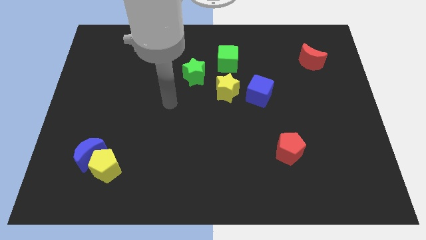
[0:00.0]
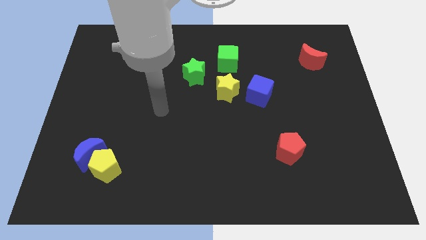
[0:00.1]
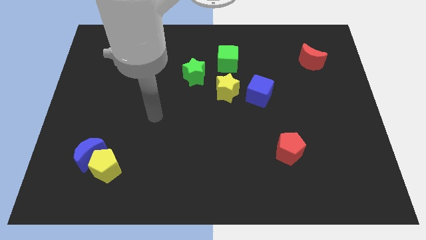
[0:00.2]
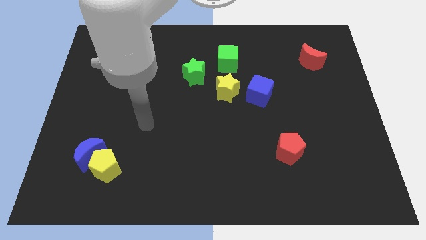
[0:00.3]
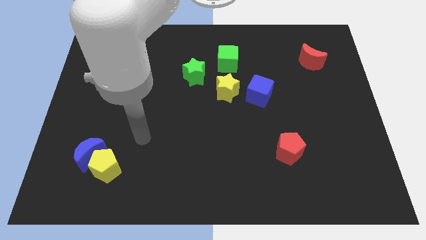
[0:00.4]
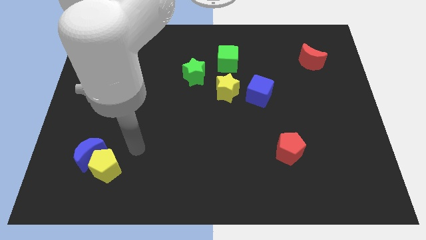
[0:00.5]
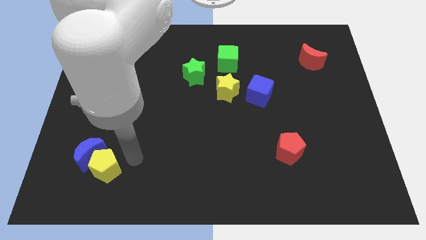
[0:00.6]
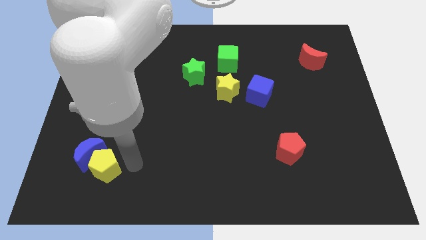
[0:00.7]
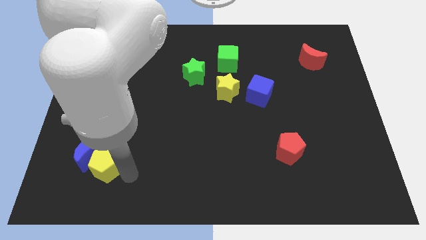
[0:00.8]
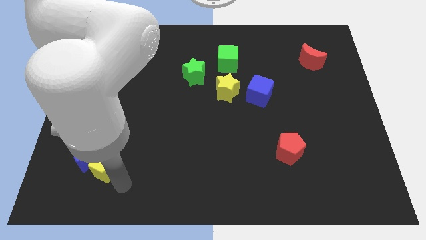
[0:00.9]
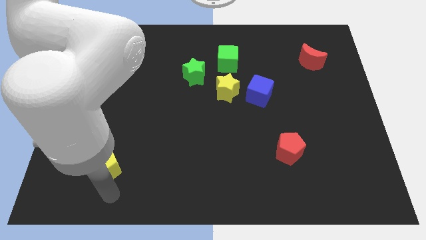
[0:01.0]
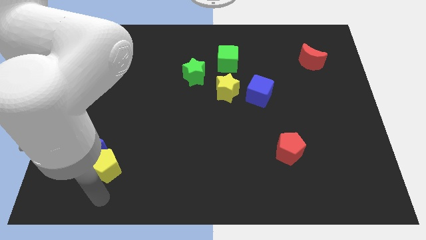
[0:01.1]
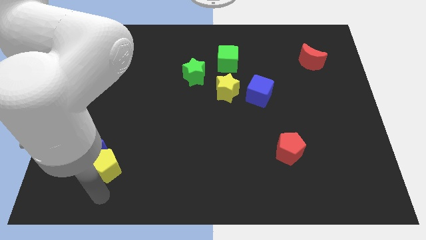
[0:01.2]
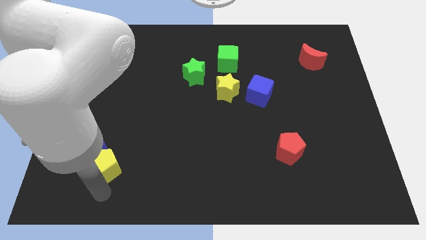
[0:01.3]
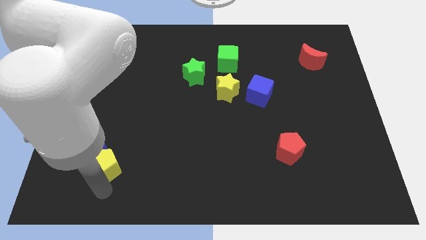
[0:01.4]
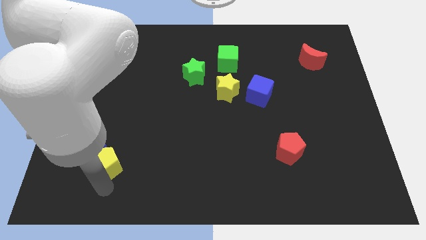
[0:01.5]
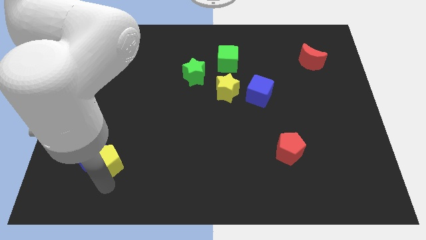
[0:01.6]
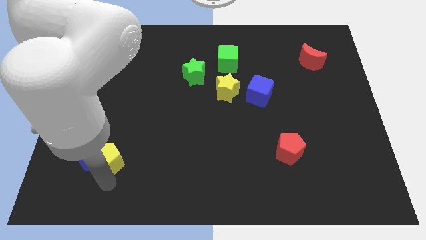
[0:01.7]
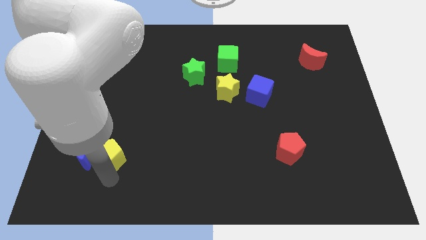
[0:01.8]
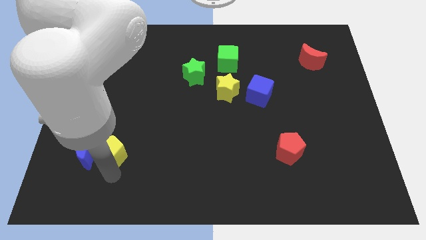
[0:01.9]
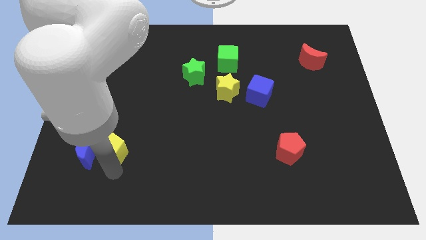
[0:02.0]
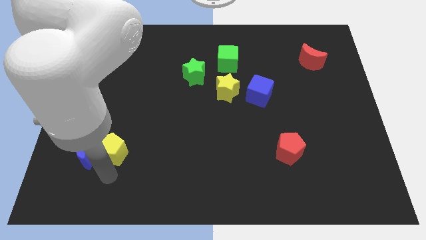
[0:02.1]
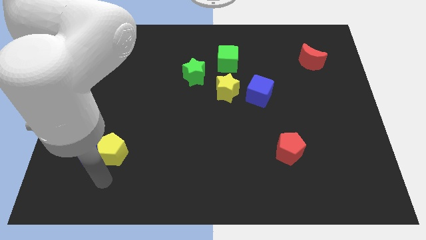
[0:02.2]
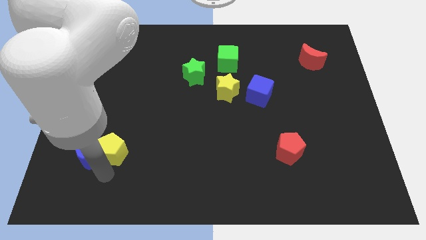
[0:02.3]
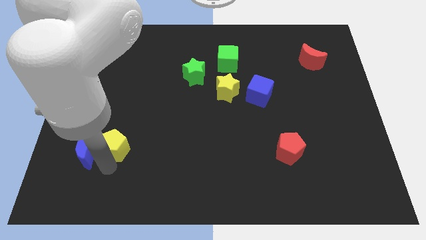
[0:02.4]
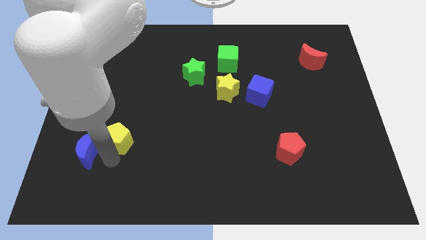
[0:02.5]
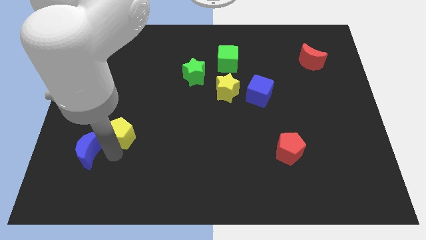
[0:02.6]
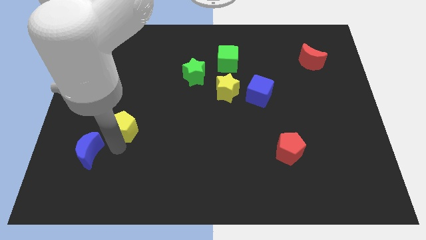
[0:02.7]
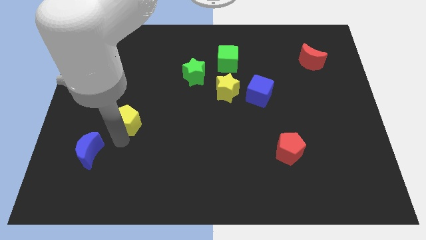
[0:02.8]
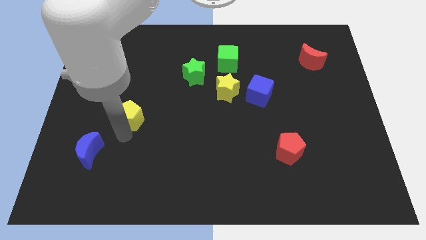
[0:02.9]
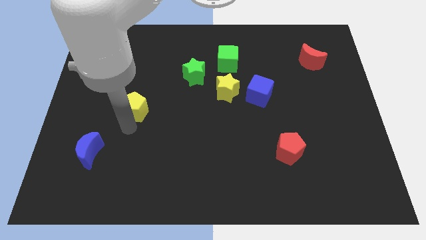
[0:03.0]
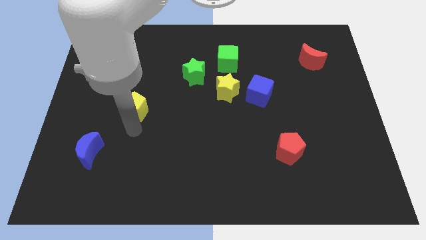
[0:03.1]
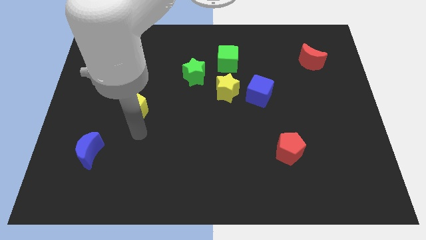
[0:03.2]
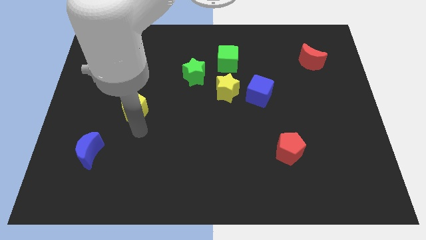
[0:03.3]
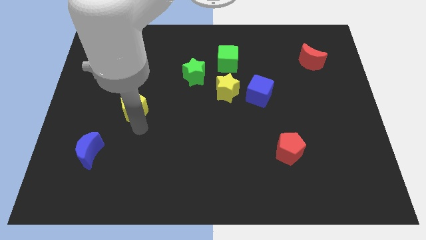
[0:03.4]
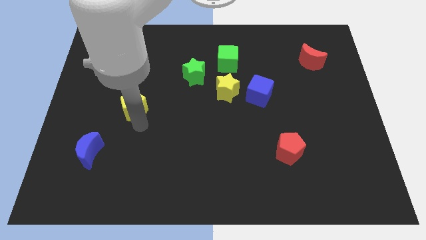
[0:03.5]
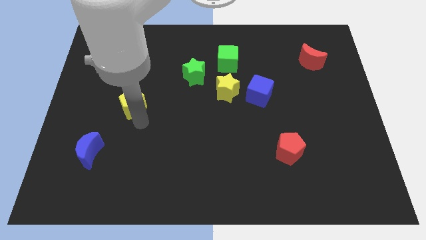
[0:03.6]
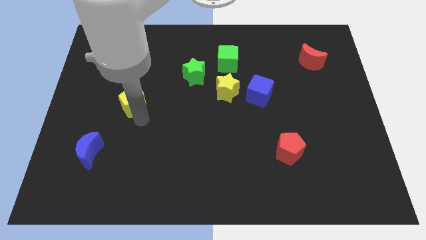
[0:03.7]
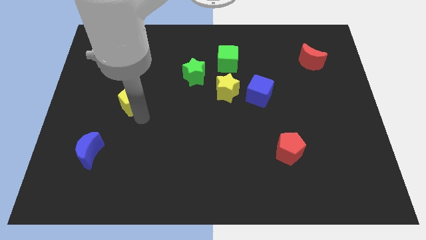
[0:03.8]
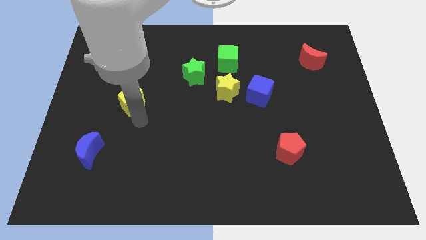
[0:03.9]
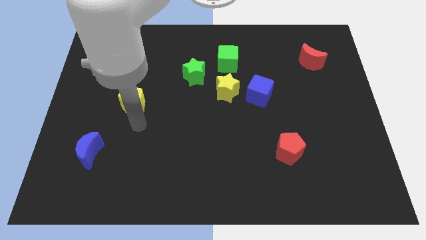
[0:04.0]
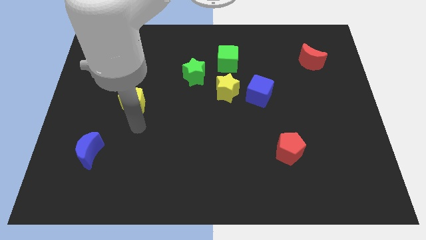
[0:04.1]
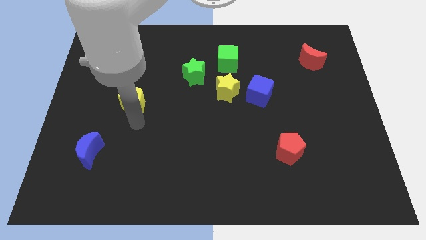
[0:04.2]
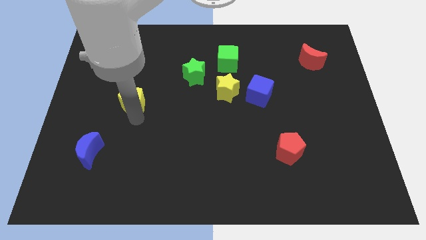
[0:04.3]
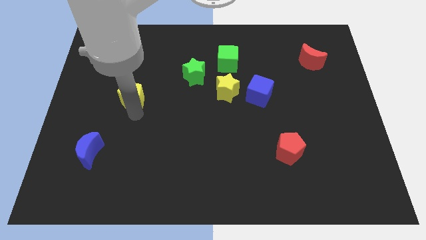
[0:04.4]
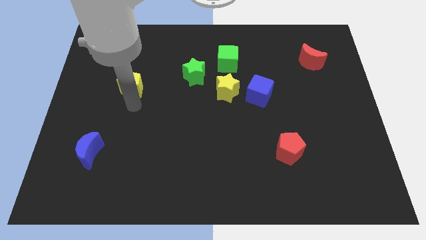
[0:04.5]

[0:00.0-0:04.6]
slide the yellow pentagon upwards

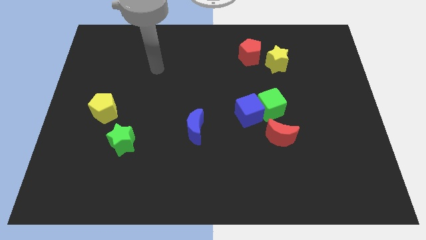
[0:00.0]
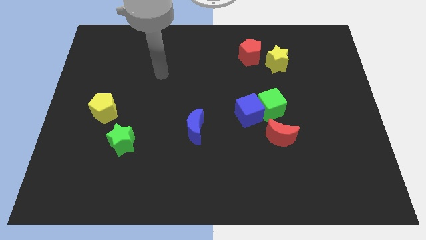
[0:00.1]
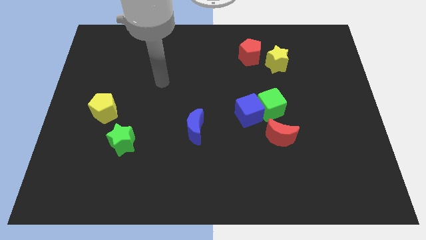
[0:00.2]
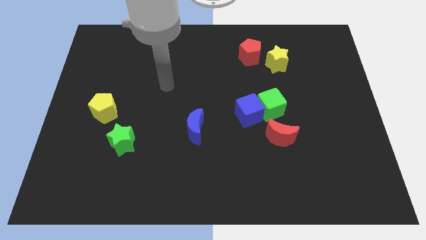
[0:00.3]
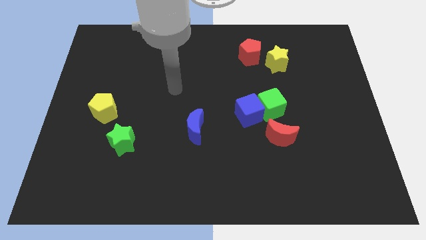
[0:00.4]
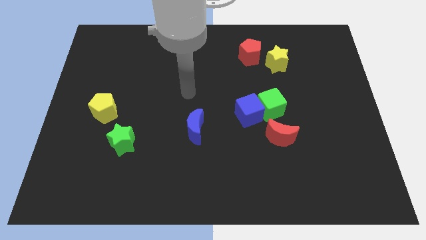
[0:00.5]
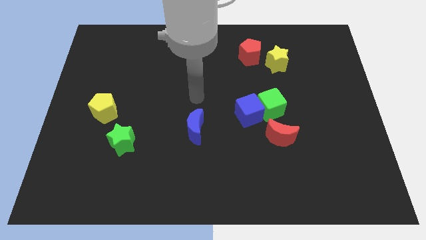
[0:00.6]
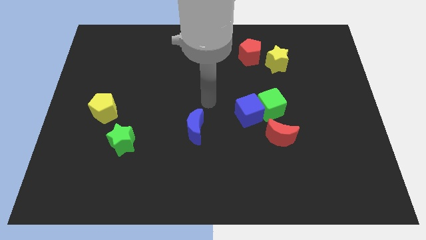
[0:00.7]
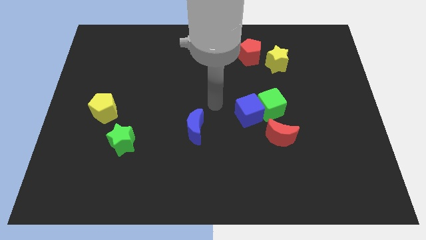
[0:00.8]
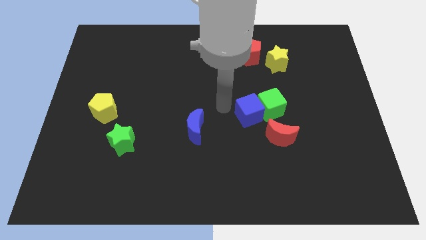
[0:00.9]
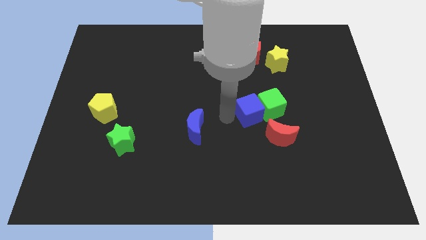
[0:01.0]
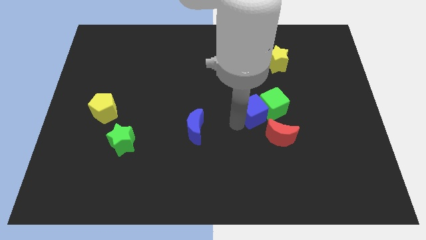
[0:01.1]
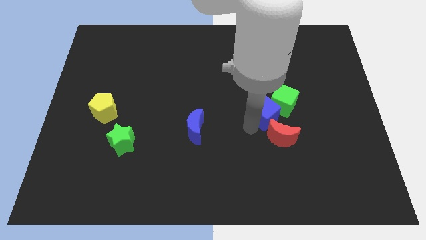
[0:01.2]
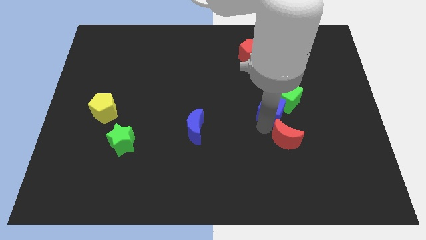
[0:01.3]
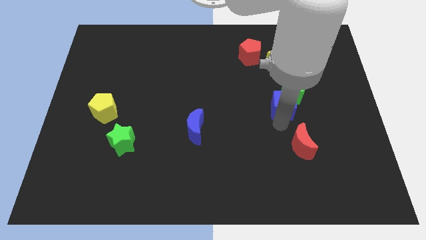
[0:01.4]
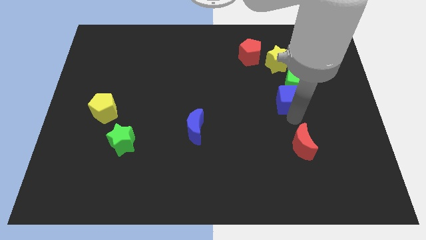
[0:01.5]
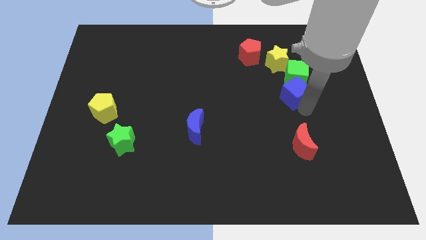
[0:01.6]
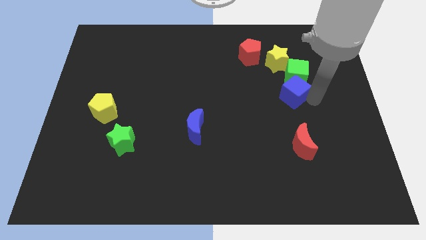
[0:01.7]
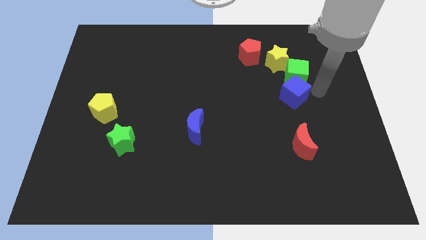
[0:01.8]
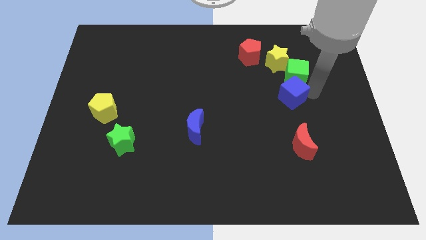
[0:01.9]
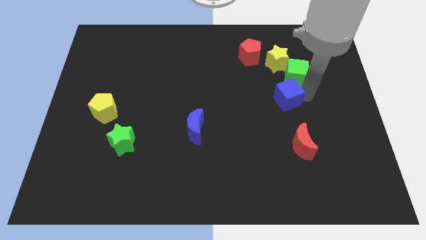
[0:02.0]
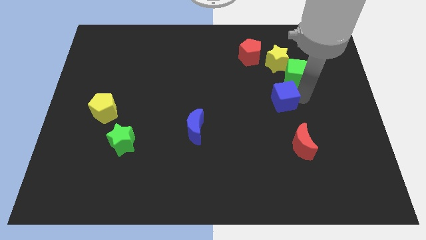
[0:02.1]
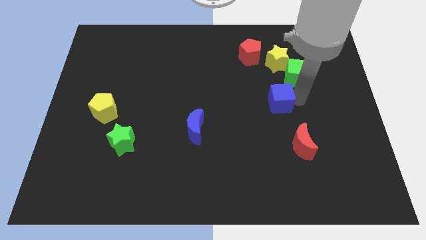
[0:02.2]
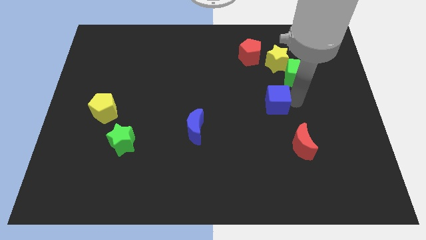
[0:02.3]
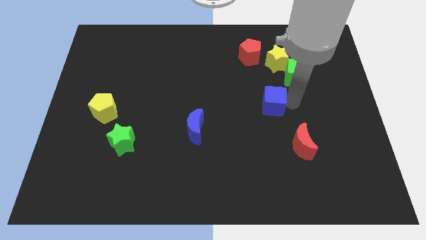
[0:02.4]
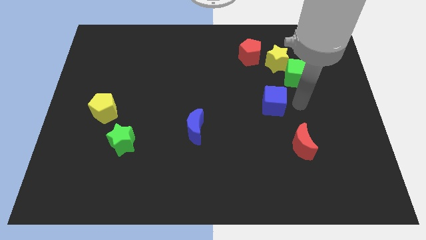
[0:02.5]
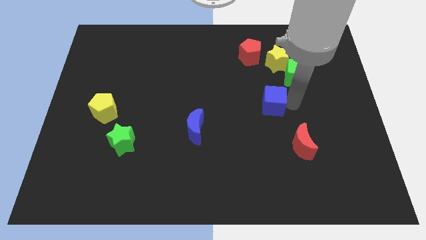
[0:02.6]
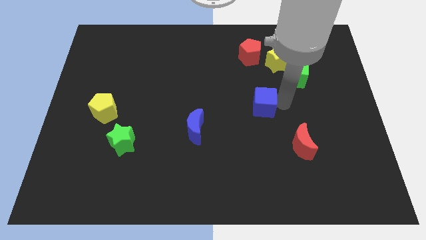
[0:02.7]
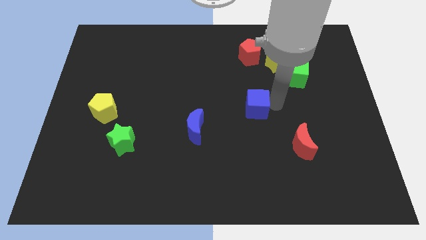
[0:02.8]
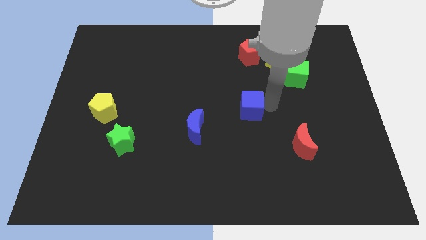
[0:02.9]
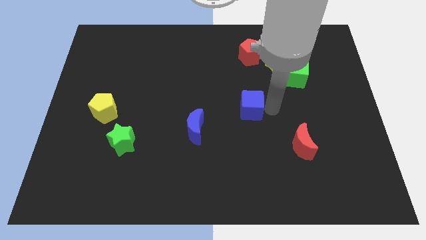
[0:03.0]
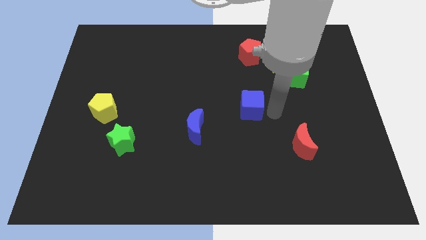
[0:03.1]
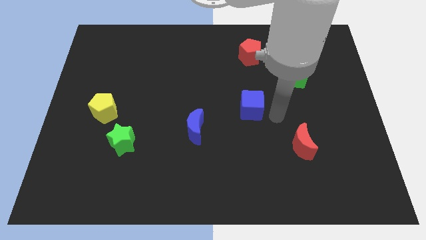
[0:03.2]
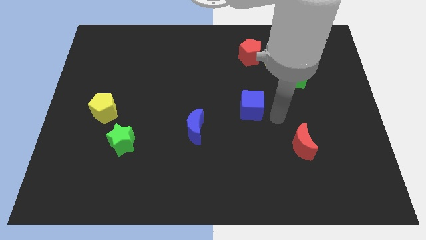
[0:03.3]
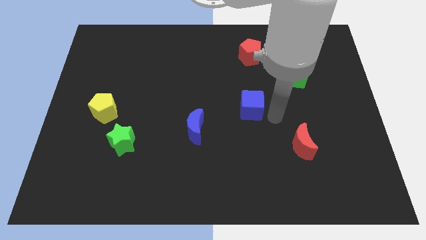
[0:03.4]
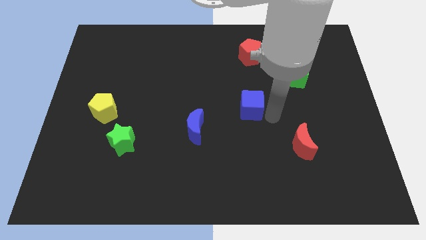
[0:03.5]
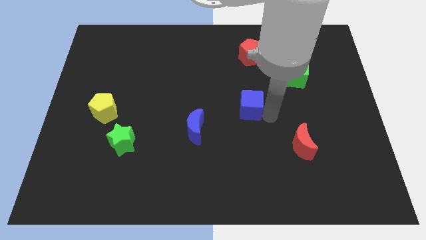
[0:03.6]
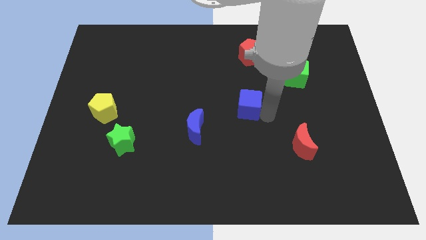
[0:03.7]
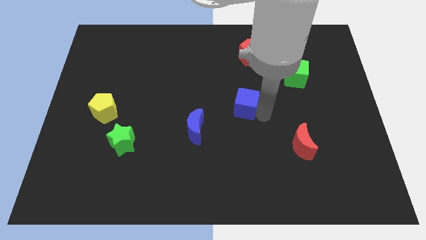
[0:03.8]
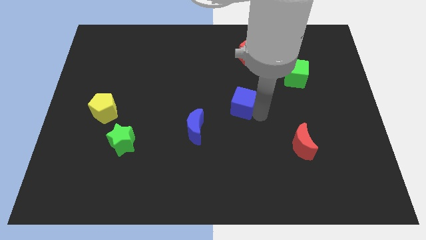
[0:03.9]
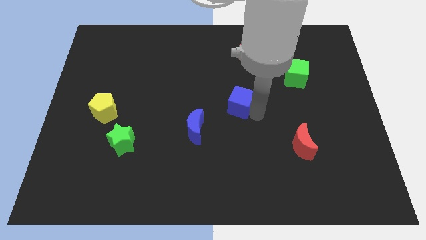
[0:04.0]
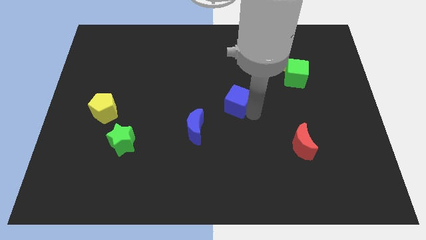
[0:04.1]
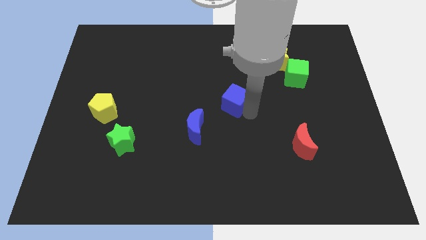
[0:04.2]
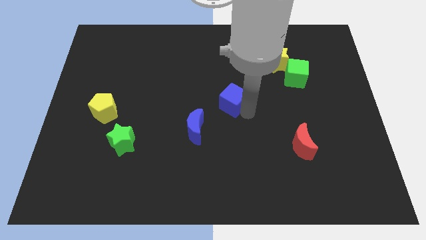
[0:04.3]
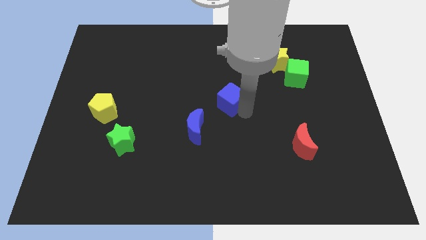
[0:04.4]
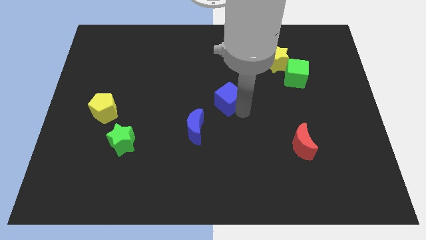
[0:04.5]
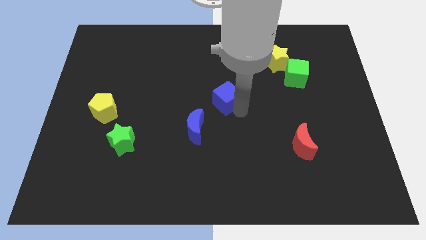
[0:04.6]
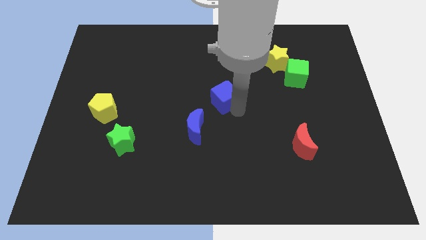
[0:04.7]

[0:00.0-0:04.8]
slightly push the blue cube up and then left
